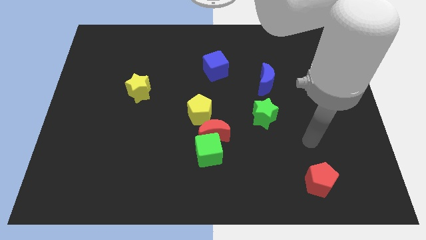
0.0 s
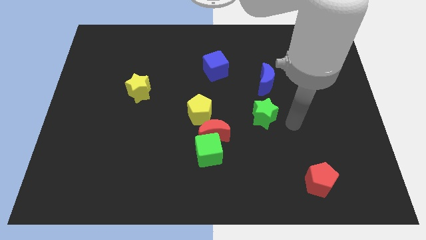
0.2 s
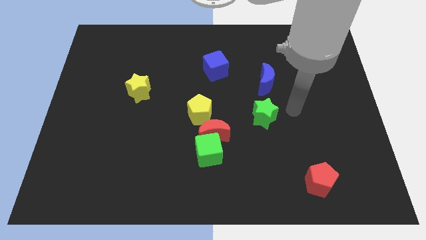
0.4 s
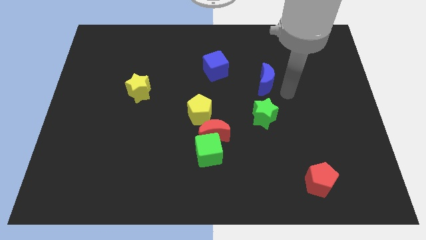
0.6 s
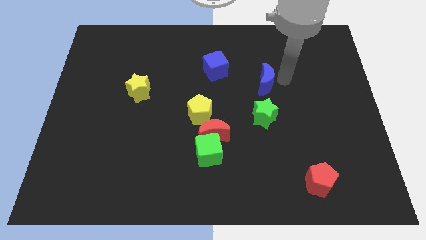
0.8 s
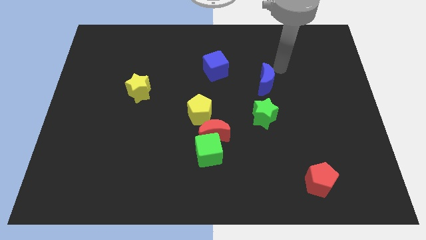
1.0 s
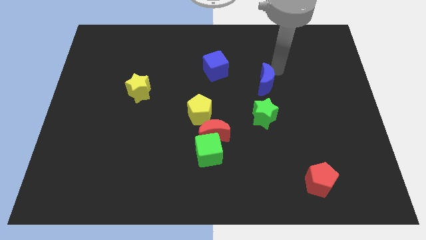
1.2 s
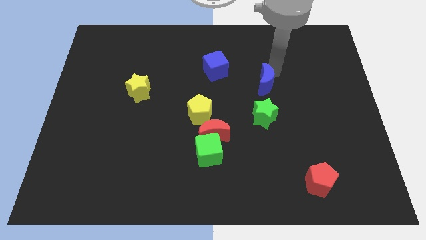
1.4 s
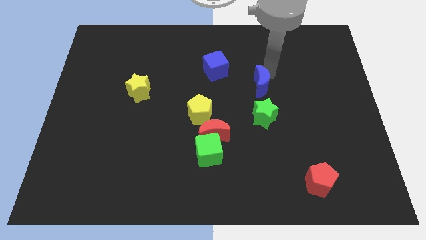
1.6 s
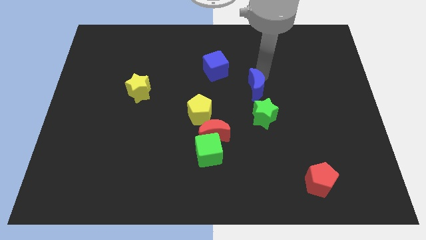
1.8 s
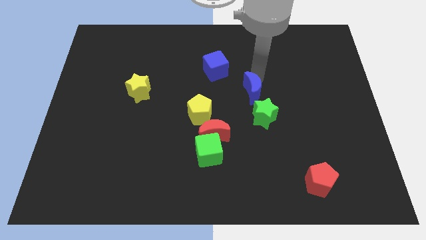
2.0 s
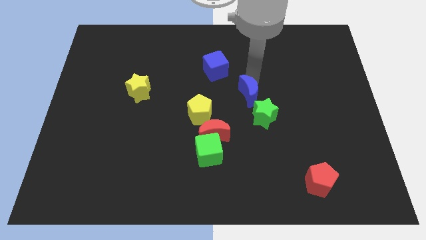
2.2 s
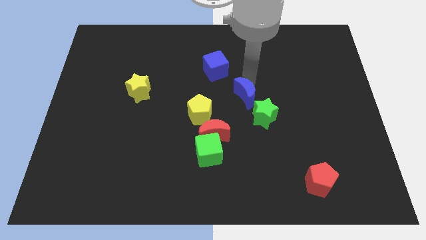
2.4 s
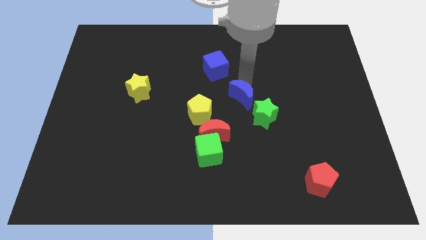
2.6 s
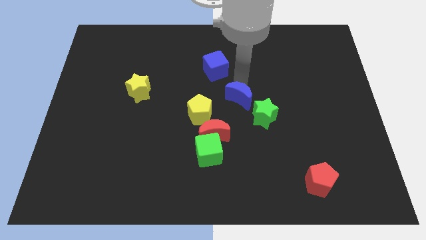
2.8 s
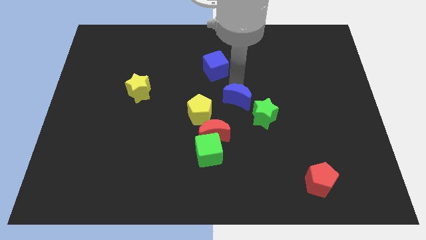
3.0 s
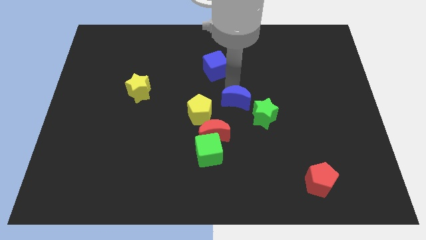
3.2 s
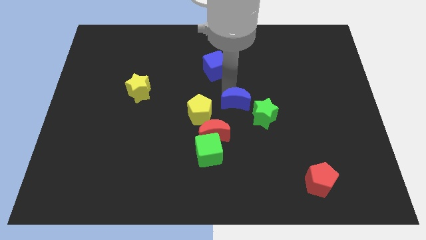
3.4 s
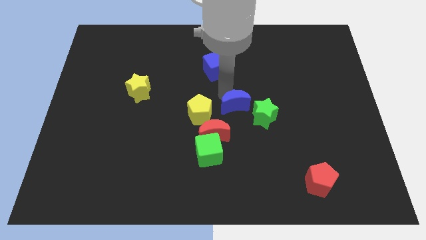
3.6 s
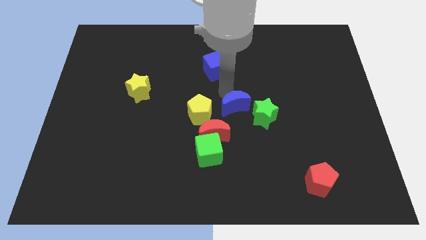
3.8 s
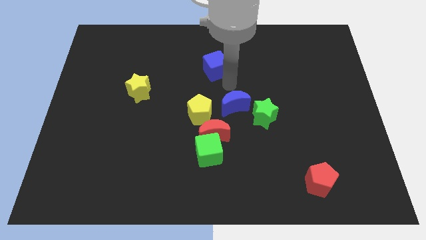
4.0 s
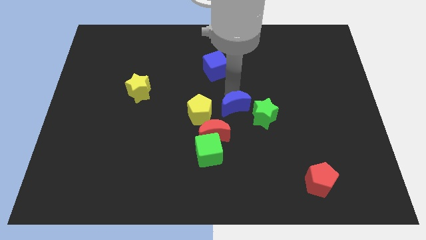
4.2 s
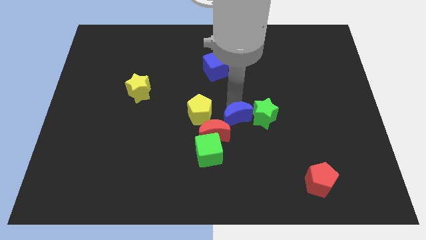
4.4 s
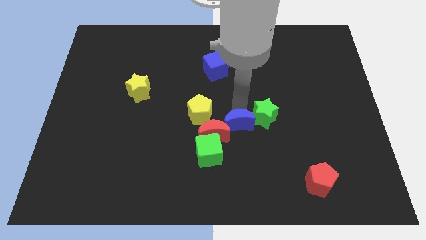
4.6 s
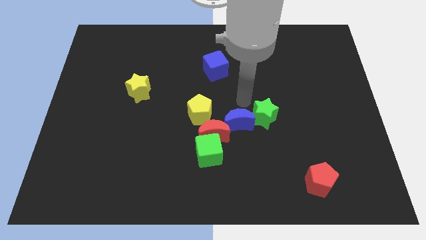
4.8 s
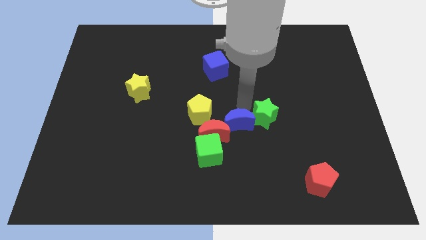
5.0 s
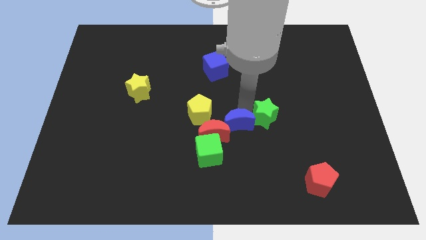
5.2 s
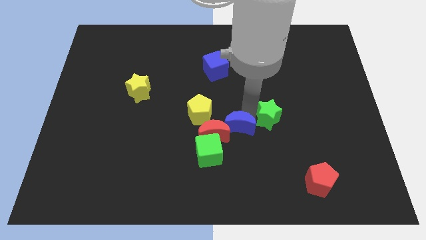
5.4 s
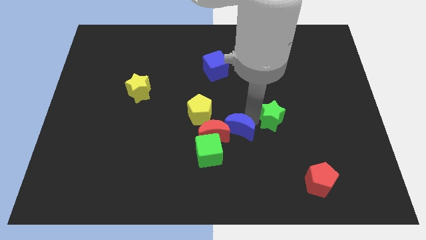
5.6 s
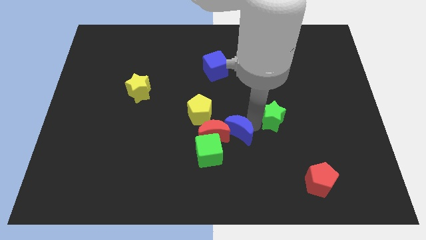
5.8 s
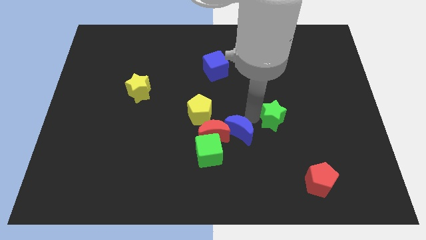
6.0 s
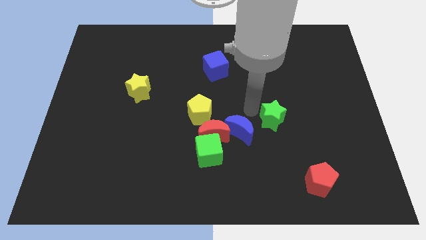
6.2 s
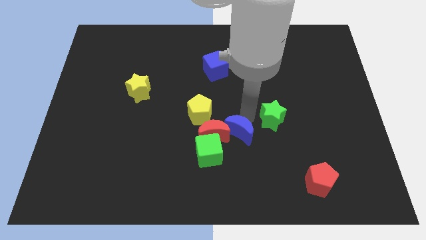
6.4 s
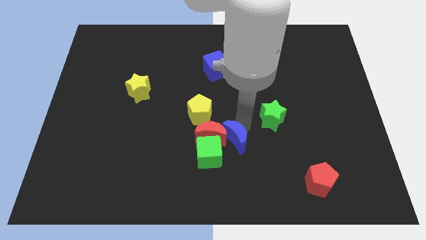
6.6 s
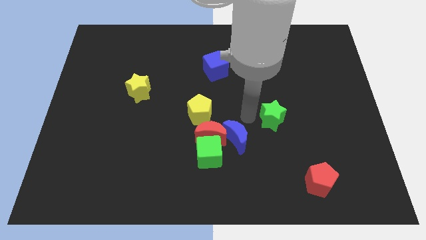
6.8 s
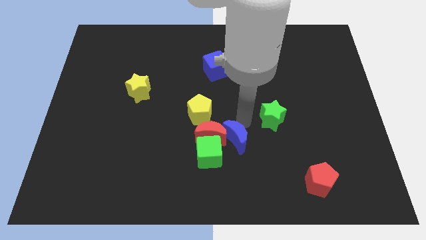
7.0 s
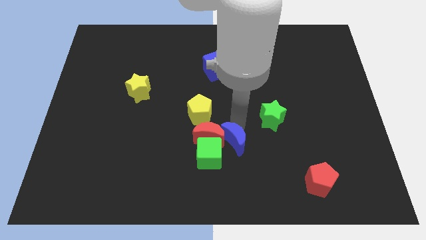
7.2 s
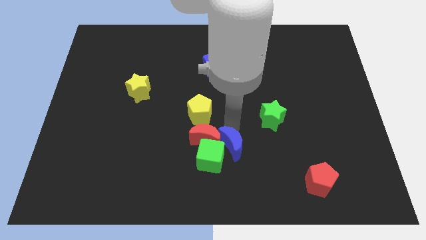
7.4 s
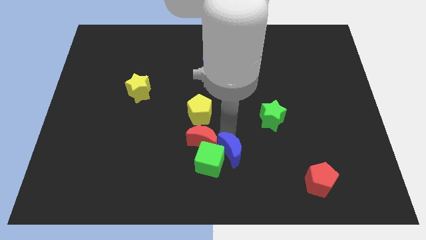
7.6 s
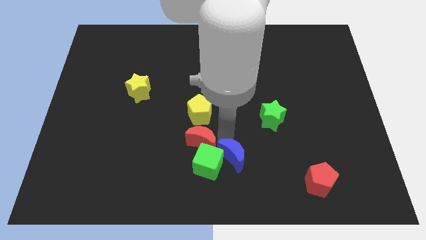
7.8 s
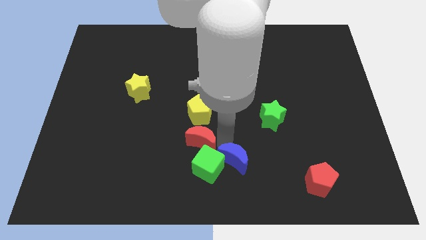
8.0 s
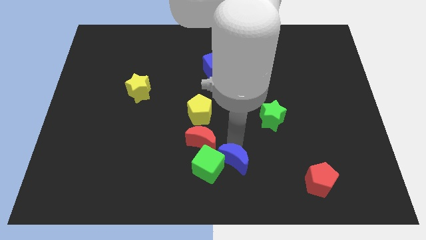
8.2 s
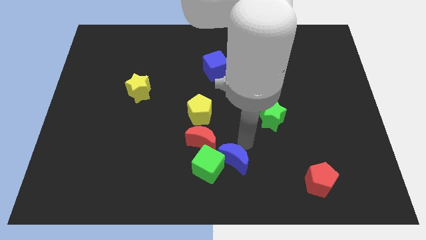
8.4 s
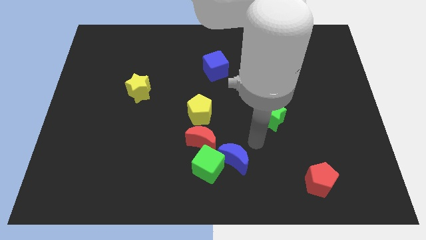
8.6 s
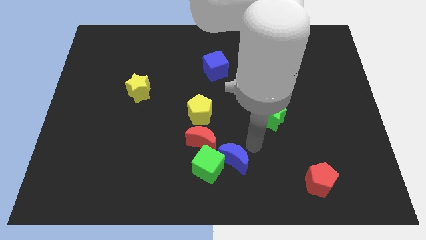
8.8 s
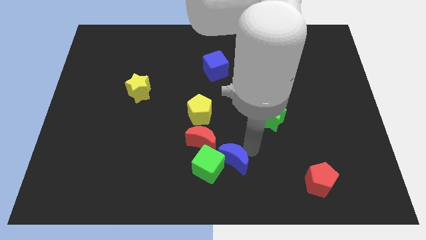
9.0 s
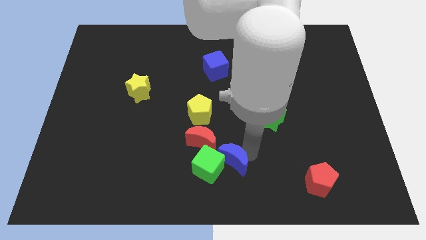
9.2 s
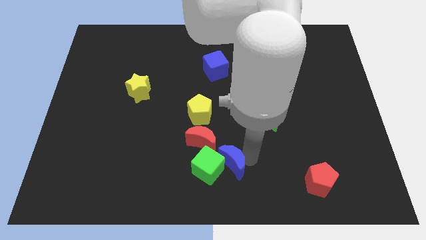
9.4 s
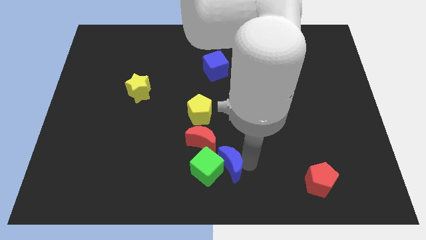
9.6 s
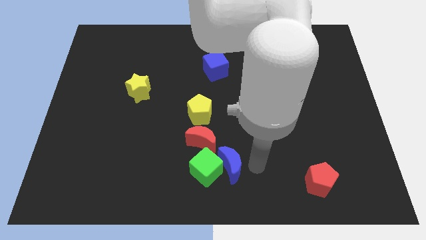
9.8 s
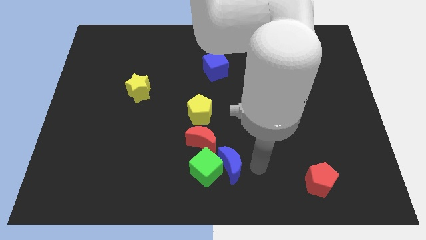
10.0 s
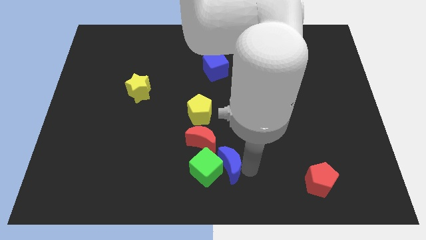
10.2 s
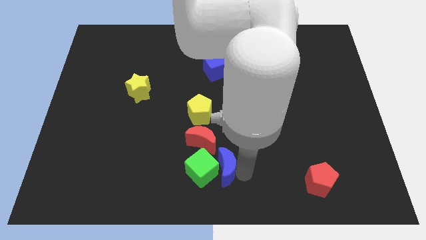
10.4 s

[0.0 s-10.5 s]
slide the blue moon down and then to the left

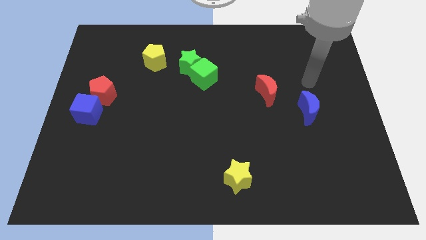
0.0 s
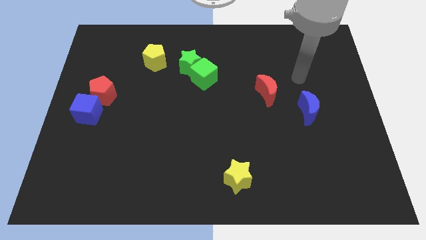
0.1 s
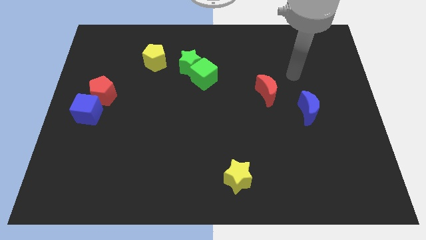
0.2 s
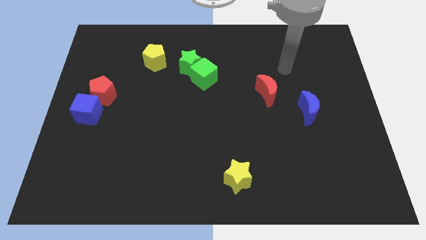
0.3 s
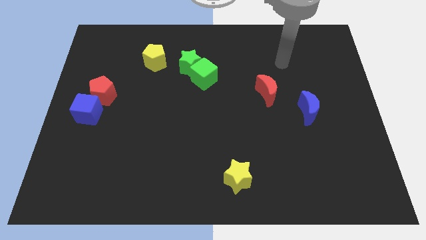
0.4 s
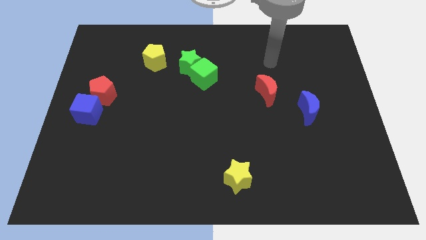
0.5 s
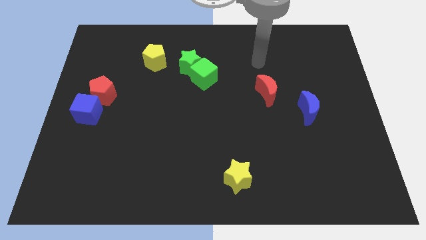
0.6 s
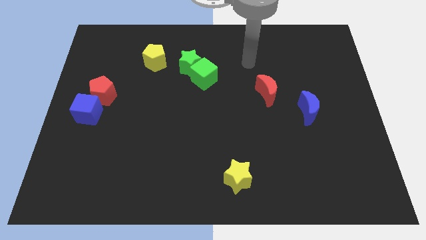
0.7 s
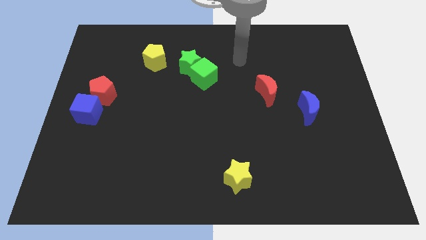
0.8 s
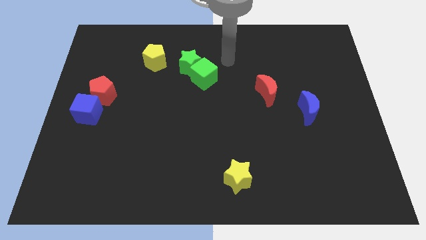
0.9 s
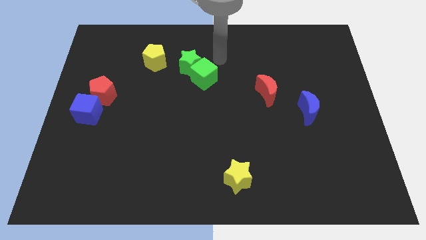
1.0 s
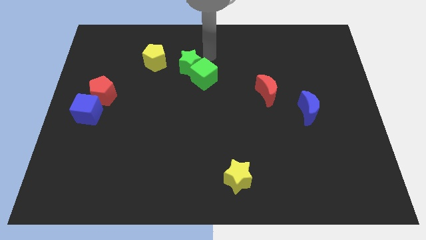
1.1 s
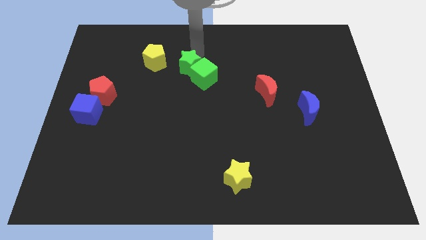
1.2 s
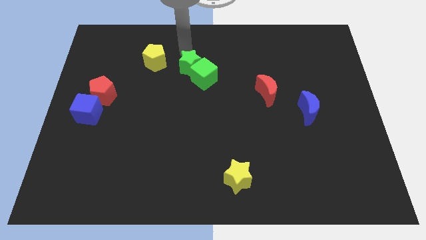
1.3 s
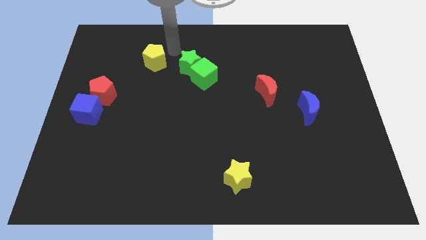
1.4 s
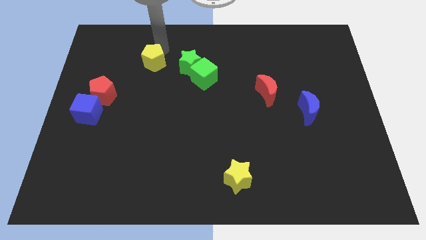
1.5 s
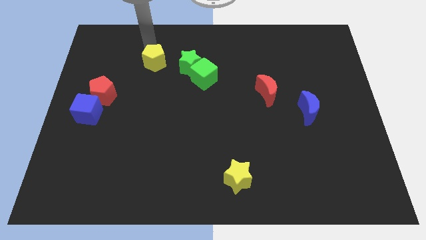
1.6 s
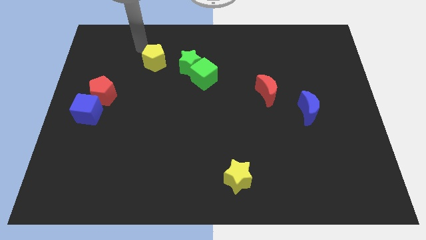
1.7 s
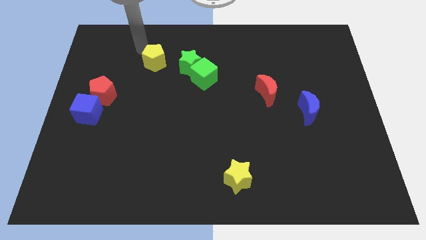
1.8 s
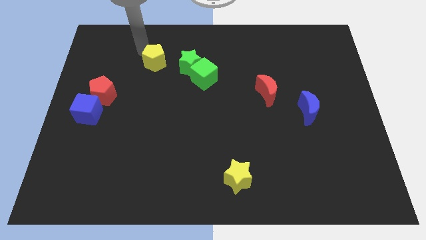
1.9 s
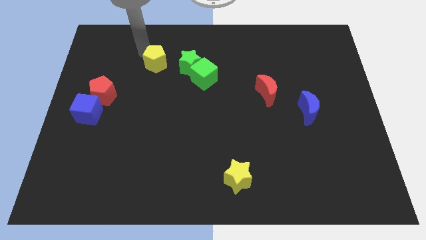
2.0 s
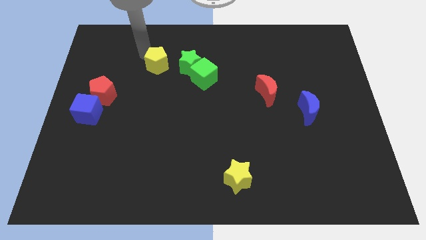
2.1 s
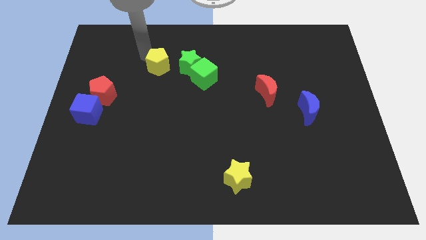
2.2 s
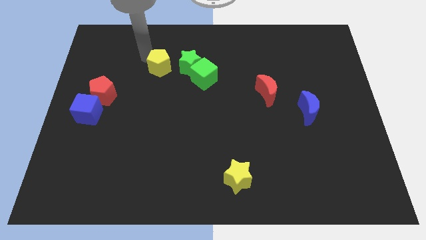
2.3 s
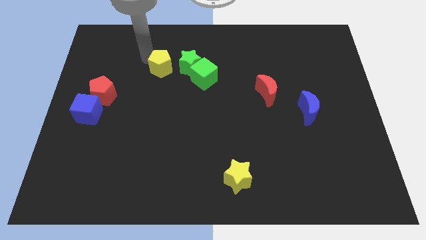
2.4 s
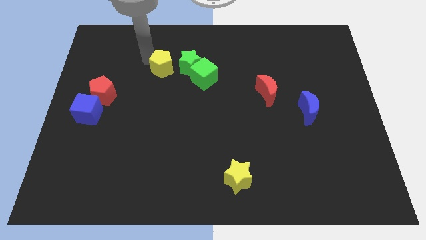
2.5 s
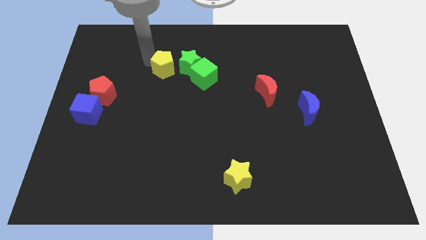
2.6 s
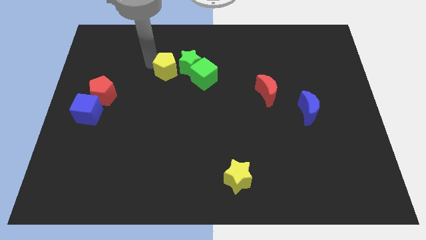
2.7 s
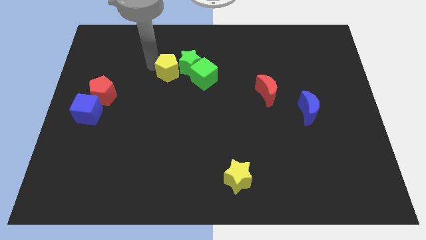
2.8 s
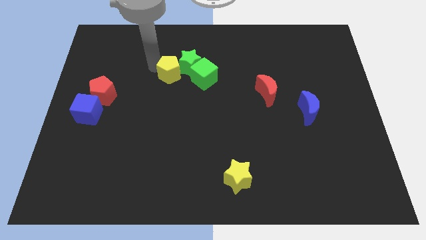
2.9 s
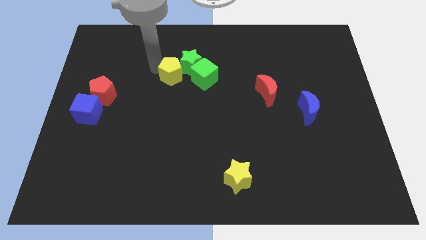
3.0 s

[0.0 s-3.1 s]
push the yellow pentagon down and right diagonally a little bit
